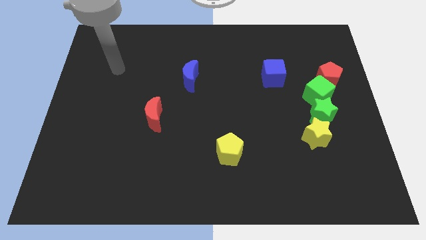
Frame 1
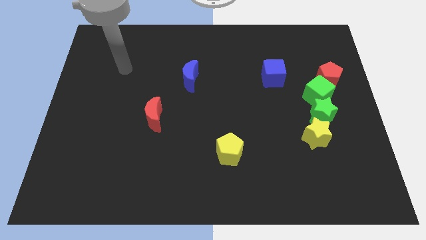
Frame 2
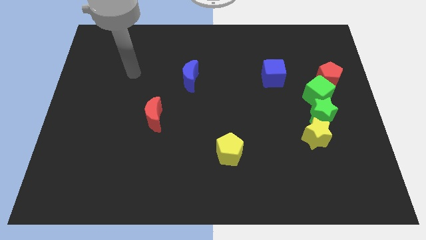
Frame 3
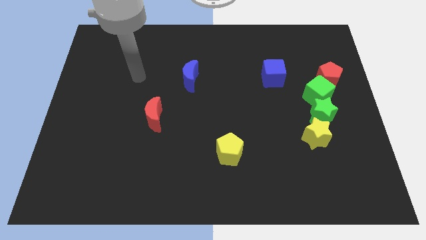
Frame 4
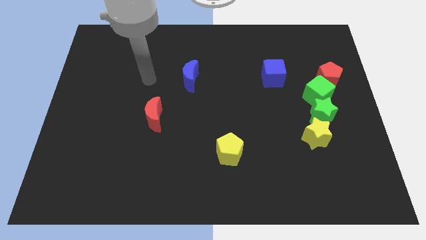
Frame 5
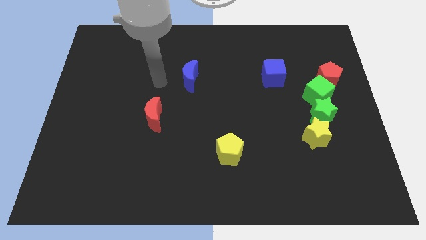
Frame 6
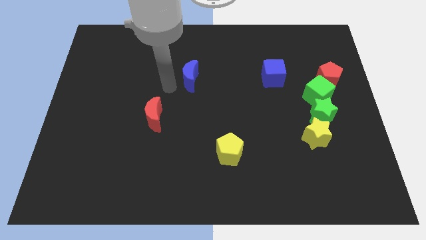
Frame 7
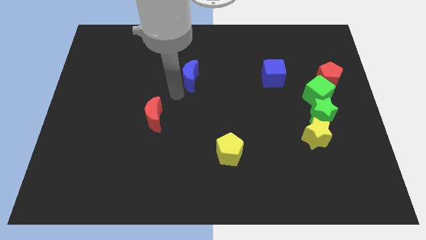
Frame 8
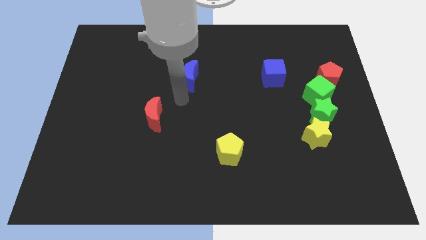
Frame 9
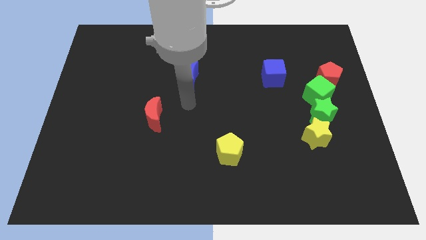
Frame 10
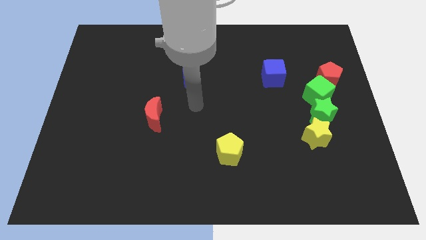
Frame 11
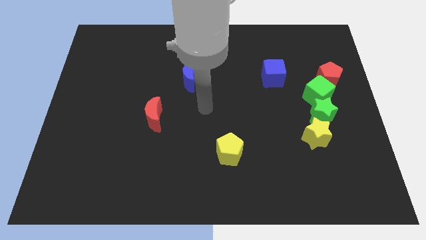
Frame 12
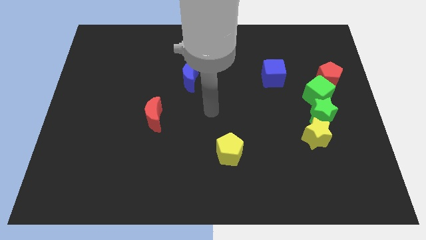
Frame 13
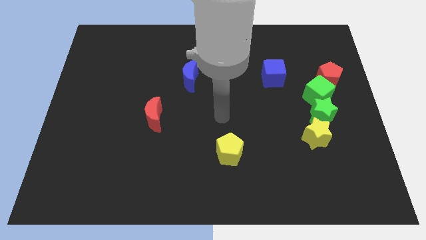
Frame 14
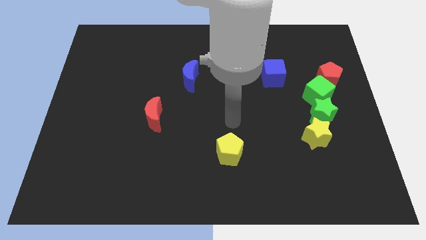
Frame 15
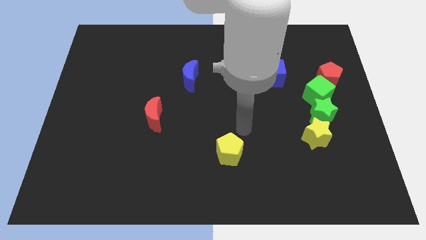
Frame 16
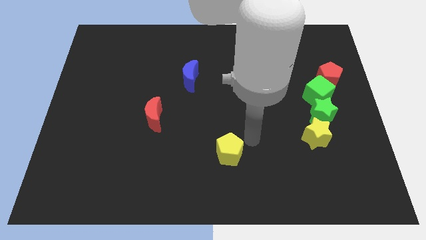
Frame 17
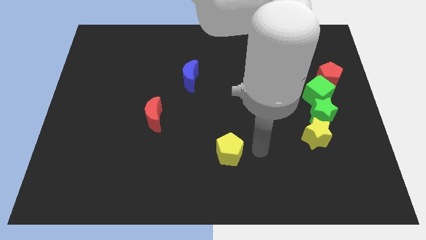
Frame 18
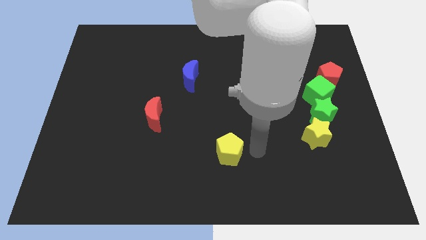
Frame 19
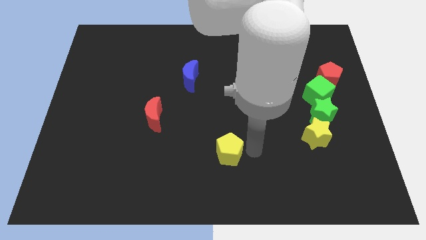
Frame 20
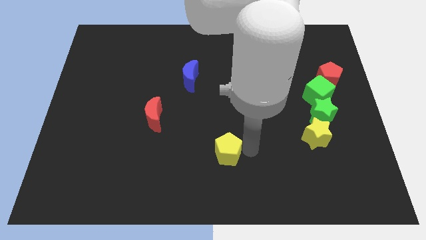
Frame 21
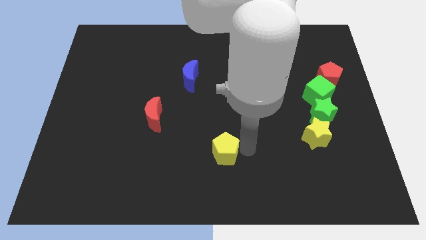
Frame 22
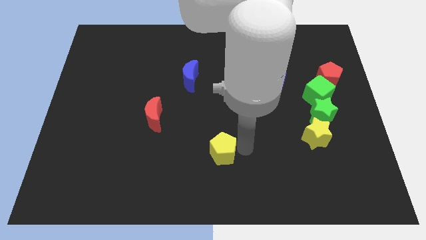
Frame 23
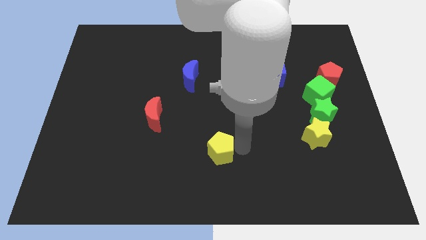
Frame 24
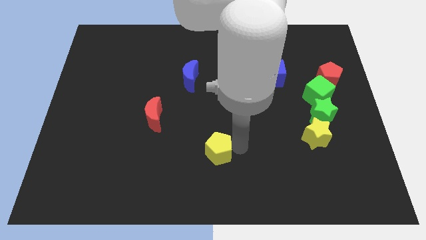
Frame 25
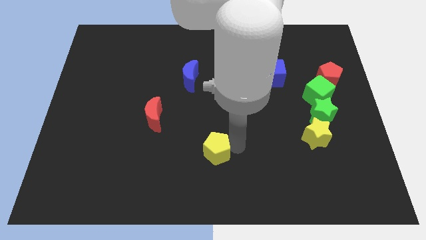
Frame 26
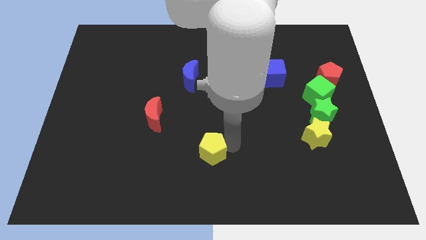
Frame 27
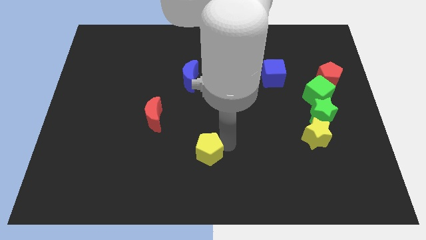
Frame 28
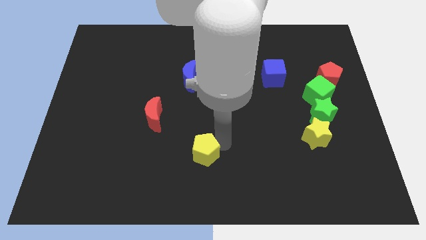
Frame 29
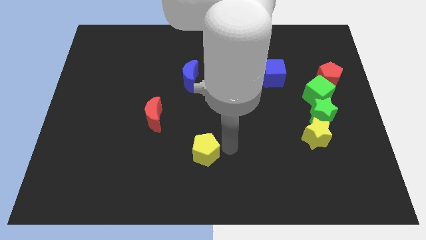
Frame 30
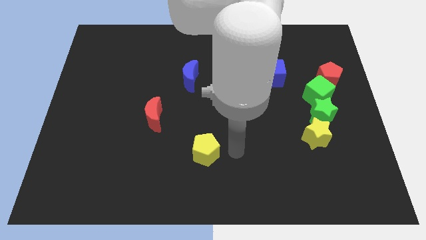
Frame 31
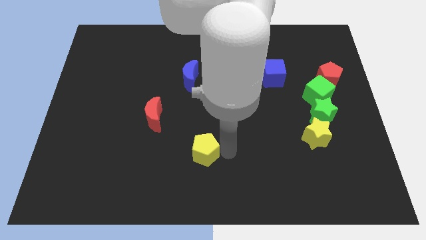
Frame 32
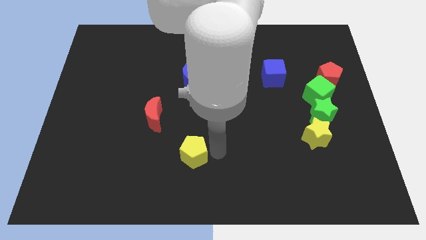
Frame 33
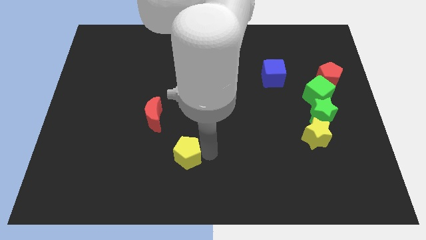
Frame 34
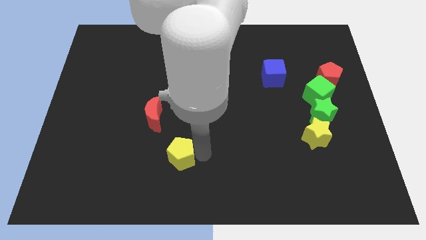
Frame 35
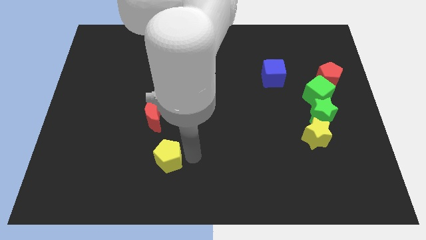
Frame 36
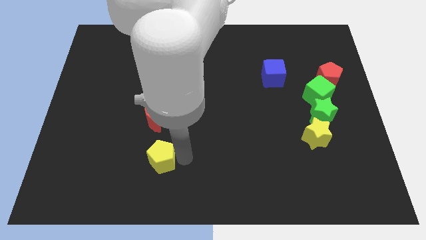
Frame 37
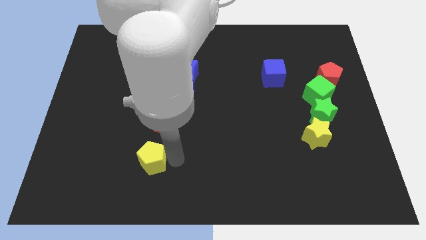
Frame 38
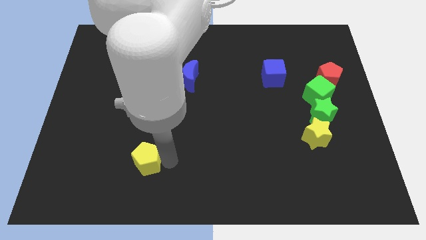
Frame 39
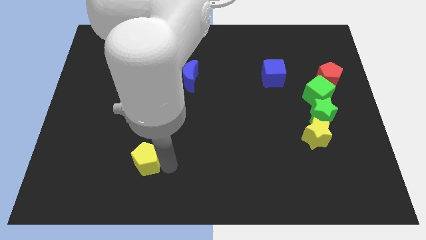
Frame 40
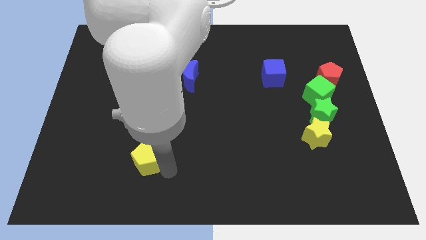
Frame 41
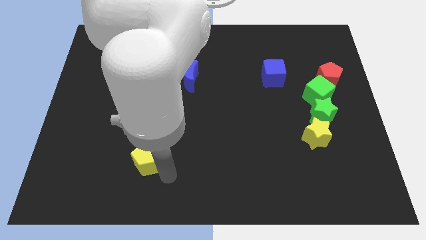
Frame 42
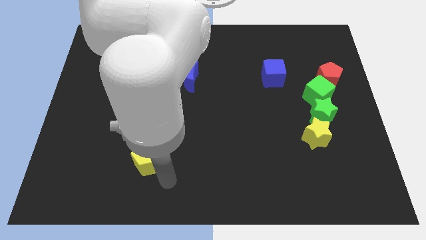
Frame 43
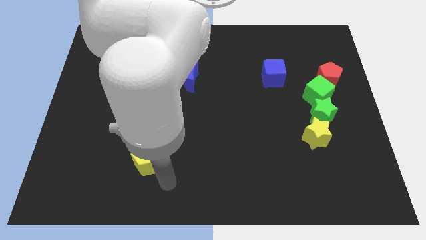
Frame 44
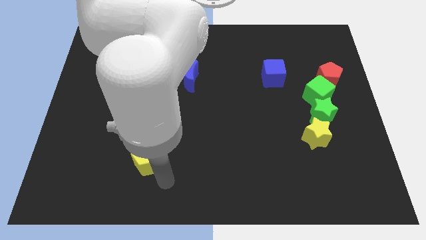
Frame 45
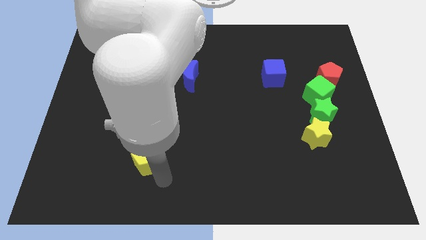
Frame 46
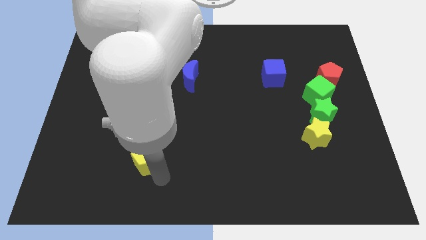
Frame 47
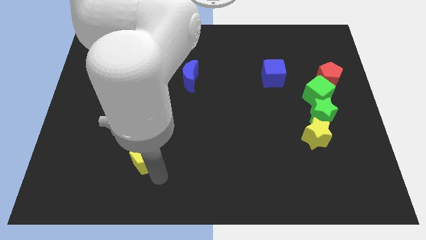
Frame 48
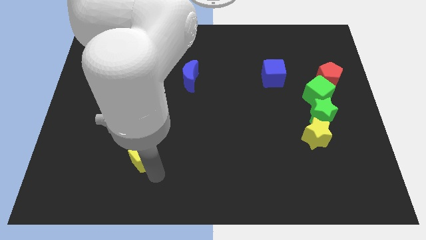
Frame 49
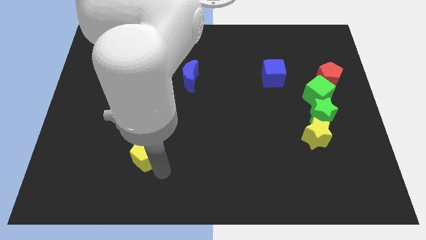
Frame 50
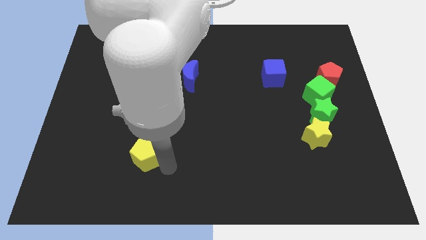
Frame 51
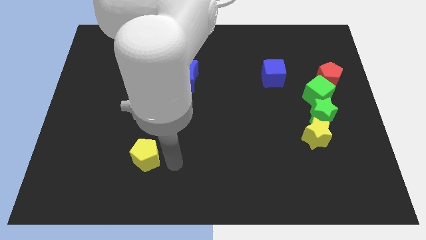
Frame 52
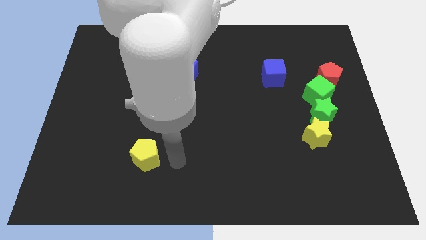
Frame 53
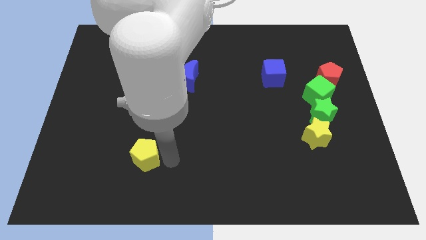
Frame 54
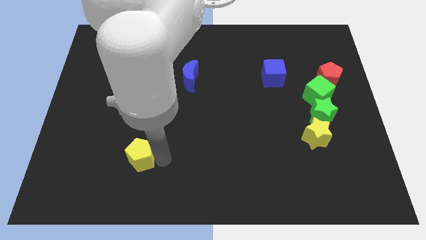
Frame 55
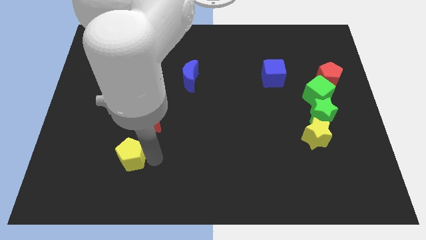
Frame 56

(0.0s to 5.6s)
move the yellow pentagon to the left

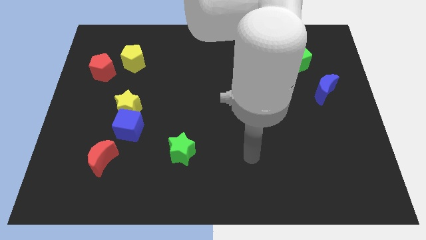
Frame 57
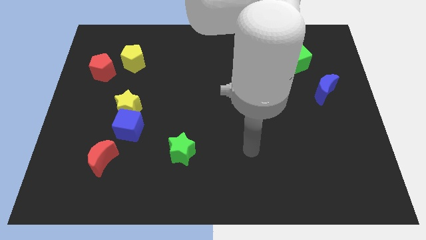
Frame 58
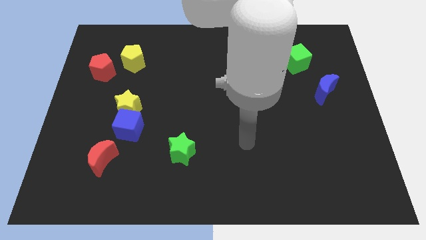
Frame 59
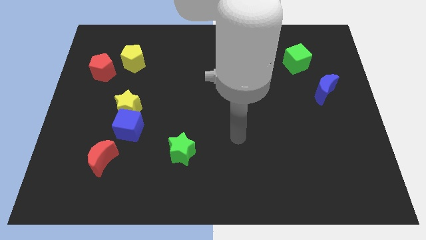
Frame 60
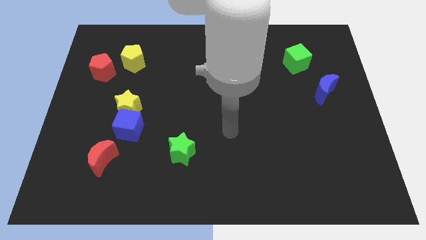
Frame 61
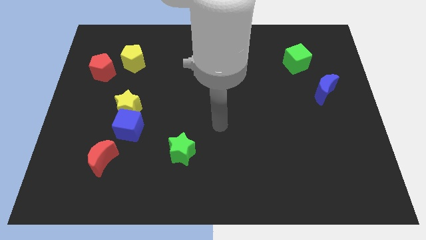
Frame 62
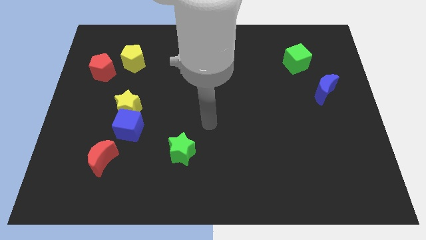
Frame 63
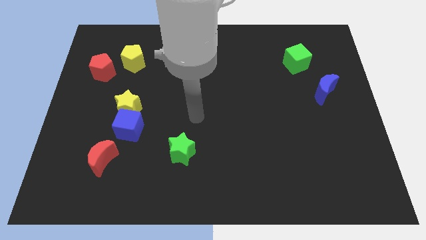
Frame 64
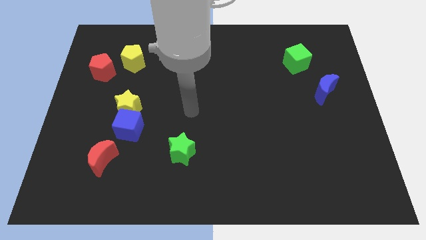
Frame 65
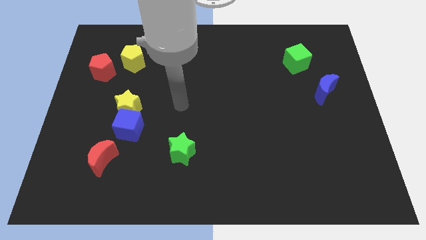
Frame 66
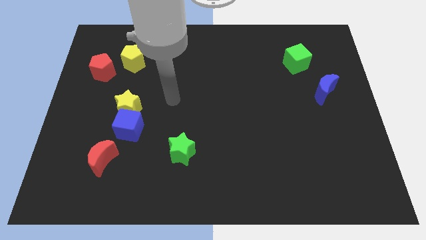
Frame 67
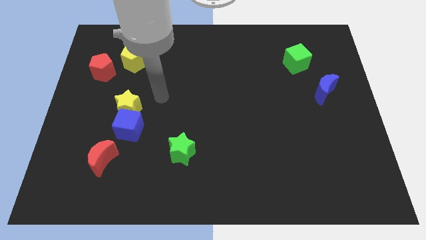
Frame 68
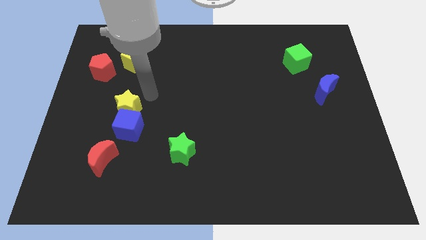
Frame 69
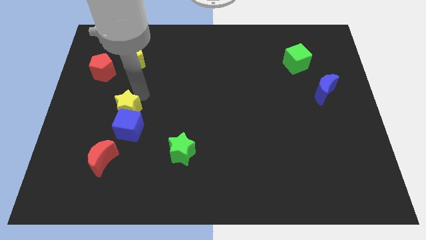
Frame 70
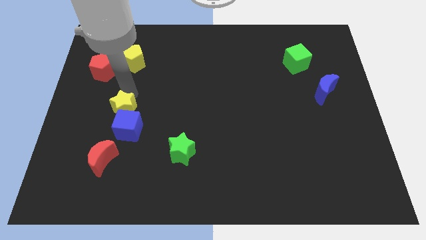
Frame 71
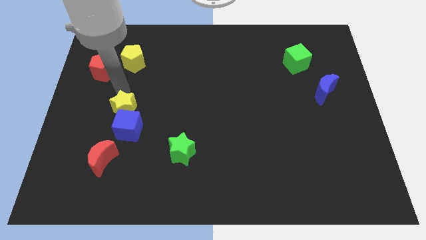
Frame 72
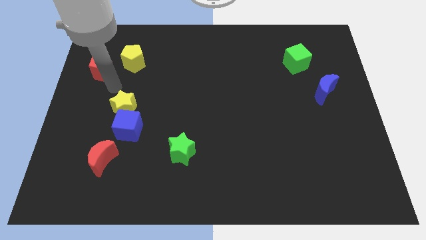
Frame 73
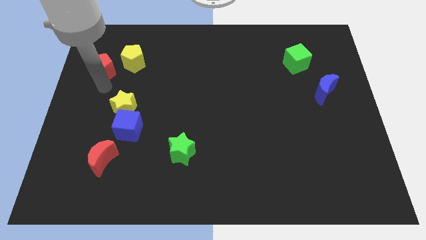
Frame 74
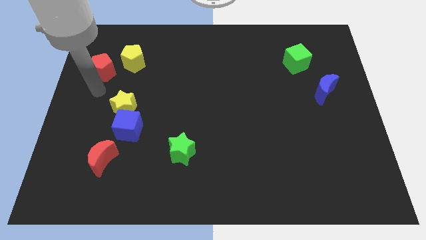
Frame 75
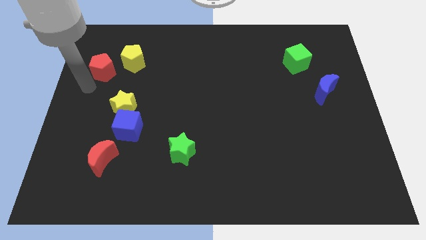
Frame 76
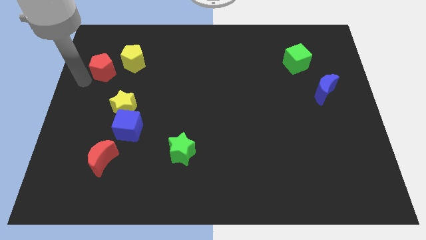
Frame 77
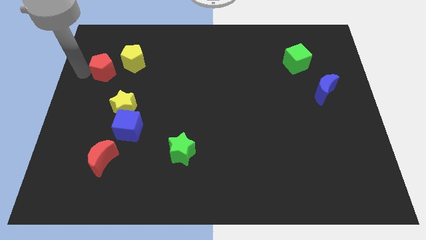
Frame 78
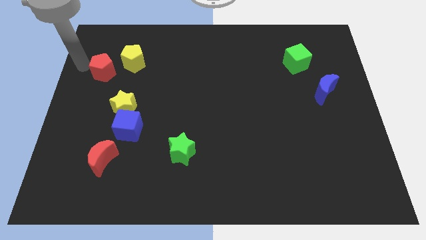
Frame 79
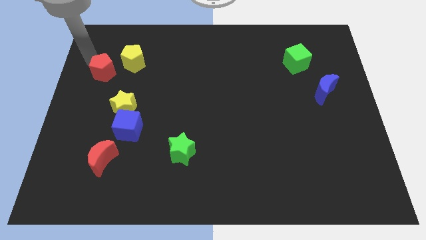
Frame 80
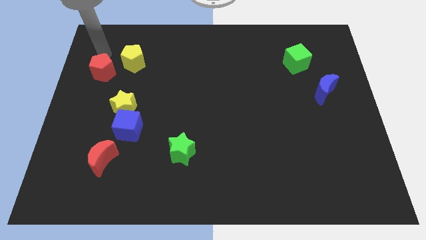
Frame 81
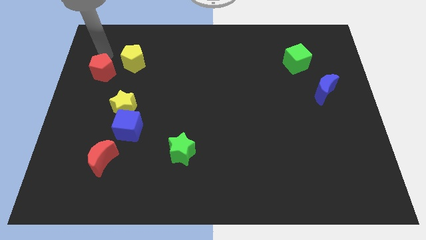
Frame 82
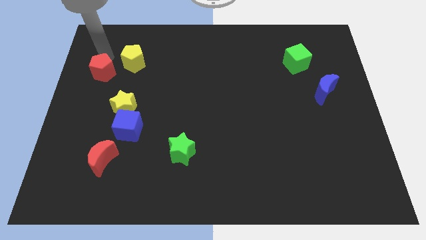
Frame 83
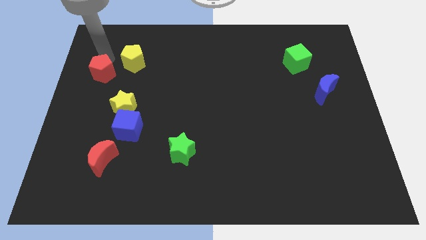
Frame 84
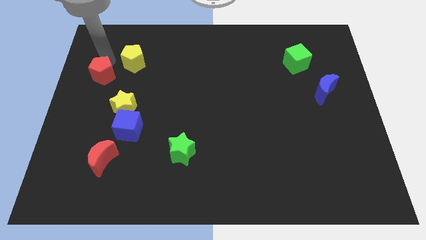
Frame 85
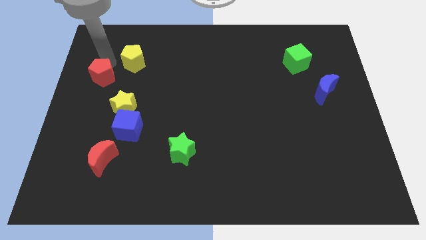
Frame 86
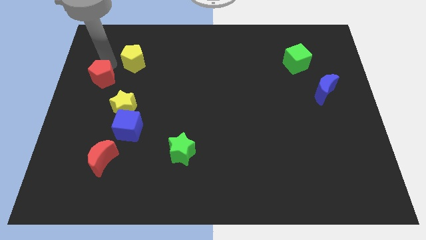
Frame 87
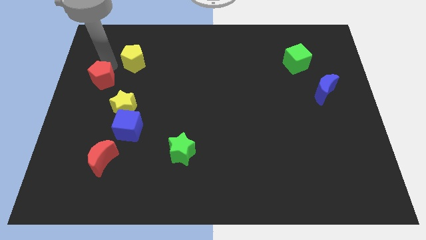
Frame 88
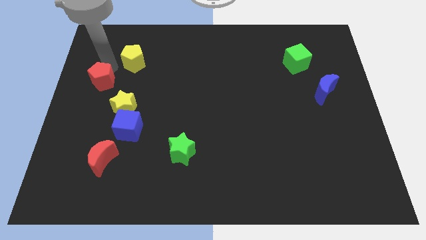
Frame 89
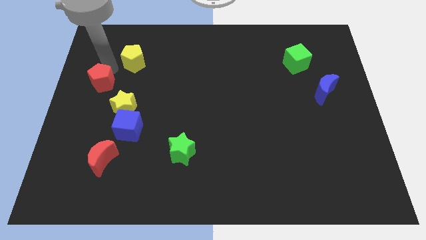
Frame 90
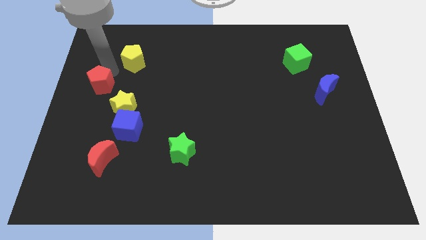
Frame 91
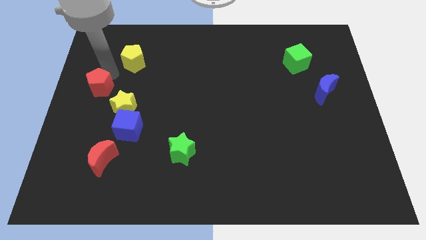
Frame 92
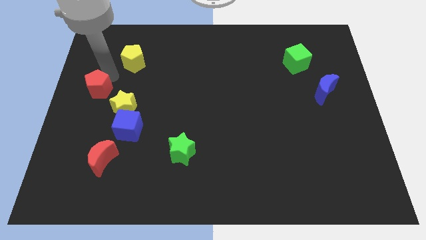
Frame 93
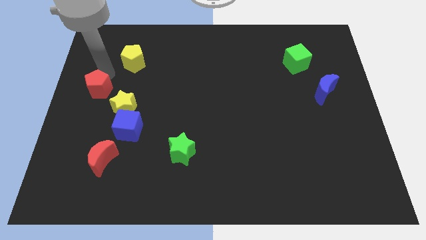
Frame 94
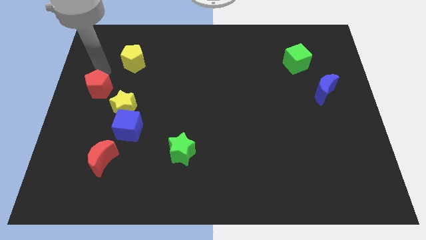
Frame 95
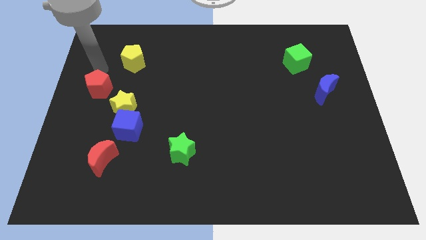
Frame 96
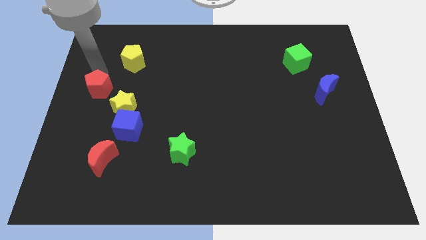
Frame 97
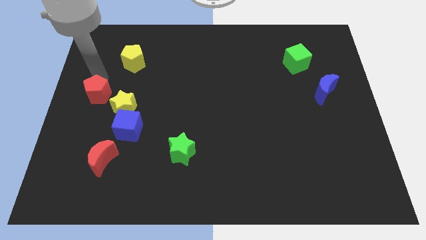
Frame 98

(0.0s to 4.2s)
slightly slide the red pentagon downwards
